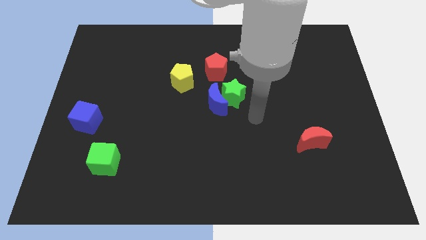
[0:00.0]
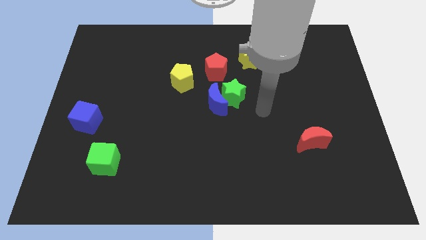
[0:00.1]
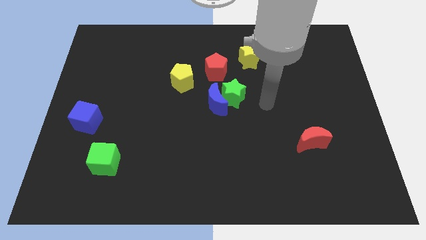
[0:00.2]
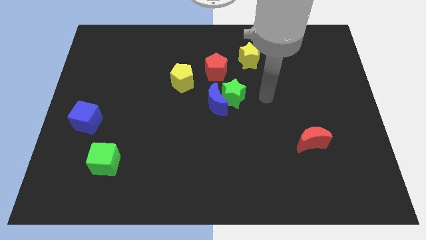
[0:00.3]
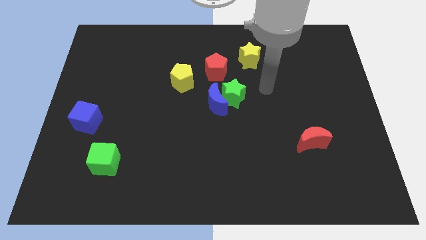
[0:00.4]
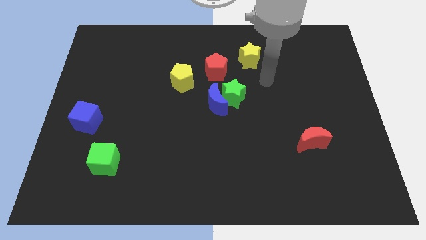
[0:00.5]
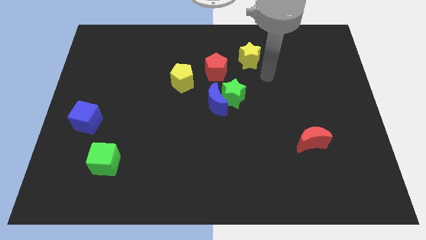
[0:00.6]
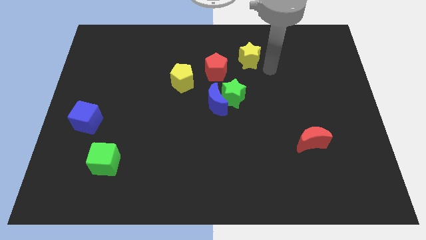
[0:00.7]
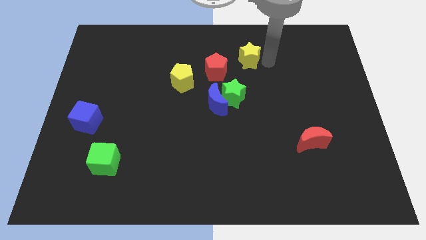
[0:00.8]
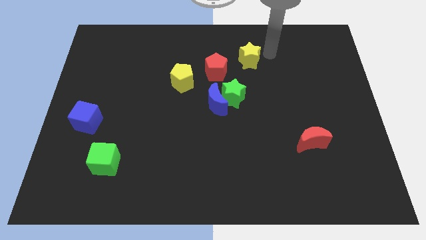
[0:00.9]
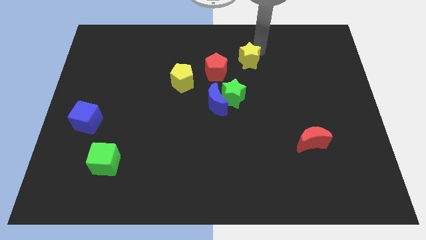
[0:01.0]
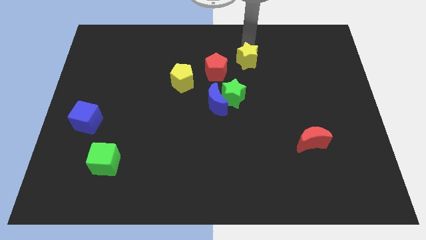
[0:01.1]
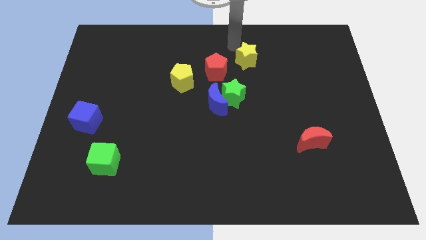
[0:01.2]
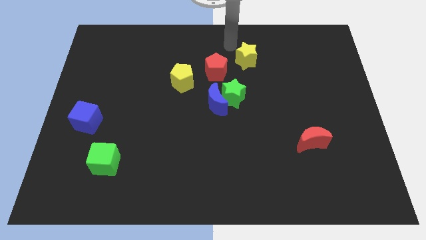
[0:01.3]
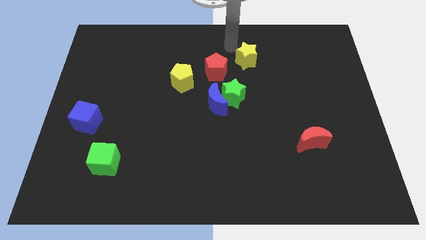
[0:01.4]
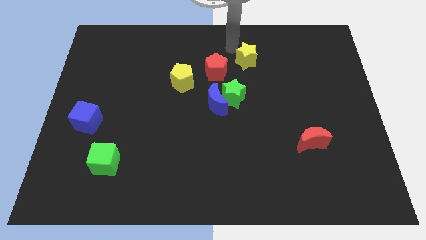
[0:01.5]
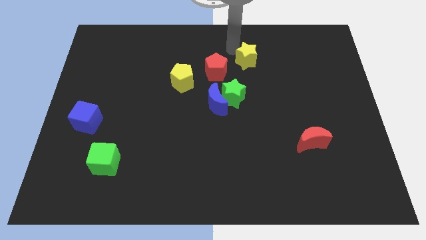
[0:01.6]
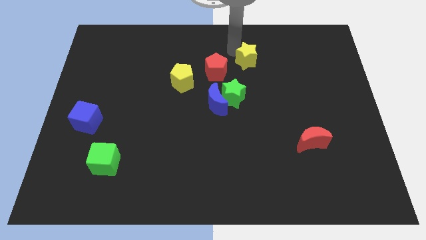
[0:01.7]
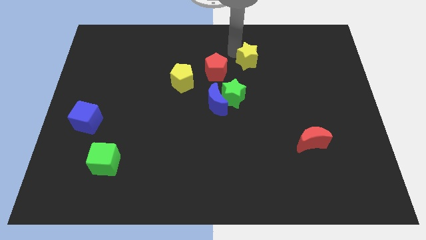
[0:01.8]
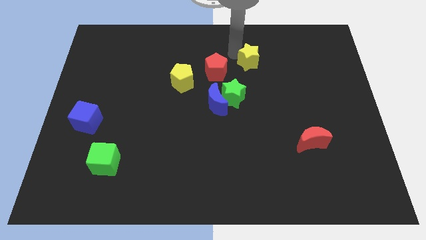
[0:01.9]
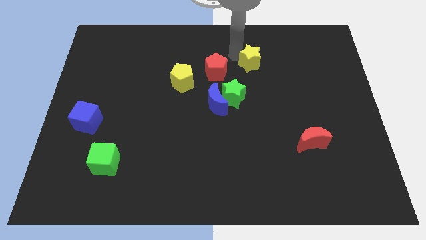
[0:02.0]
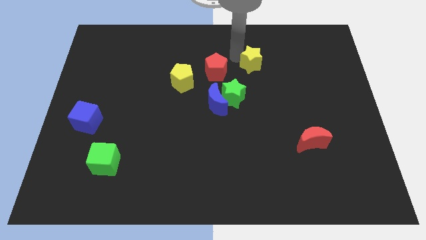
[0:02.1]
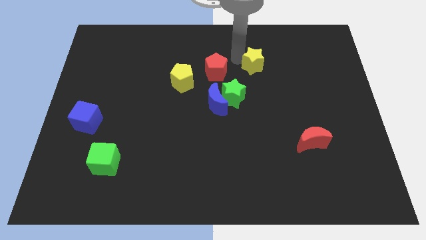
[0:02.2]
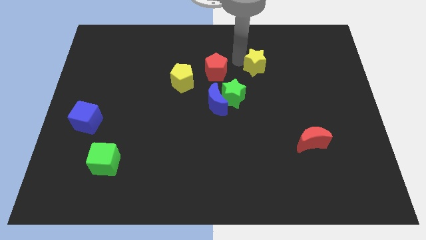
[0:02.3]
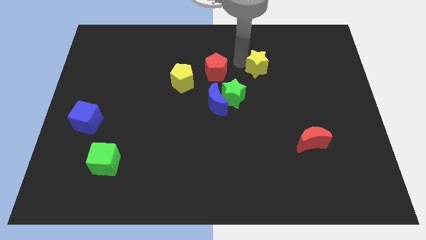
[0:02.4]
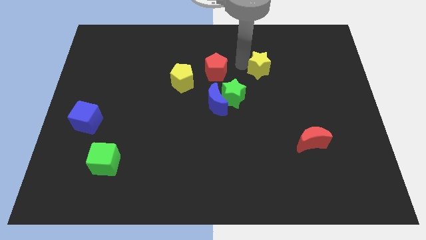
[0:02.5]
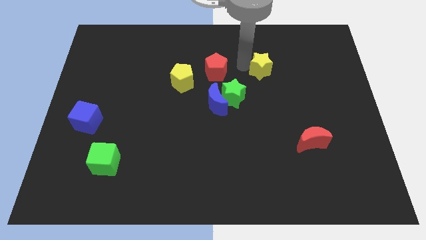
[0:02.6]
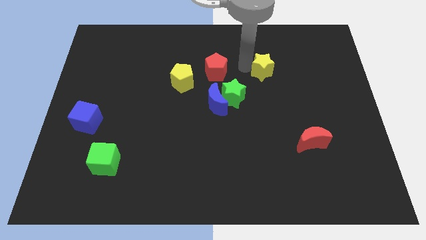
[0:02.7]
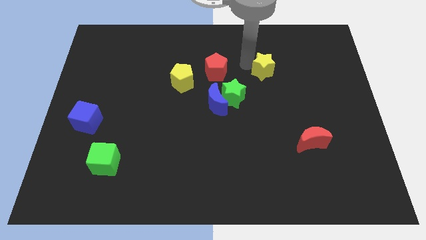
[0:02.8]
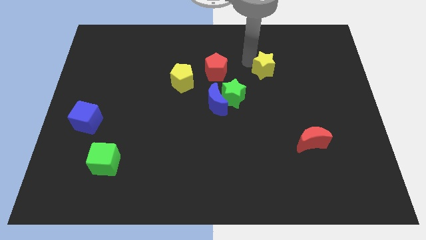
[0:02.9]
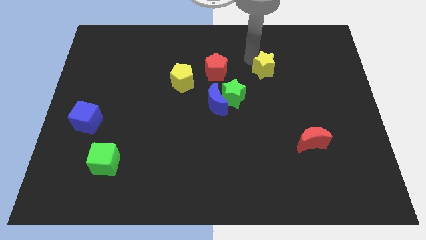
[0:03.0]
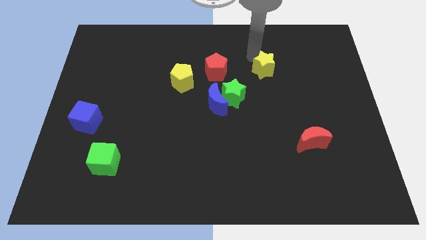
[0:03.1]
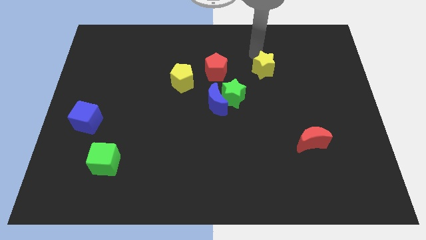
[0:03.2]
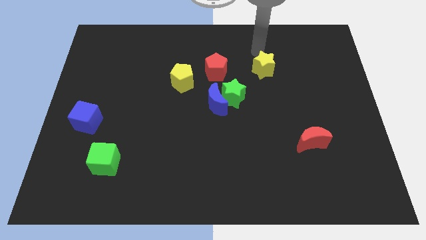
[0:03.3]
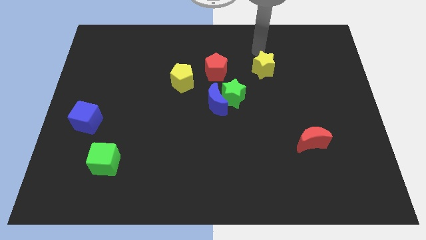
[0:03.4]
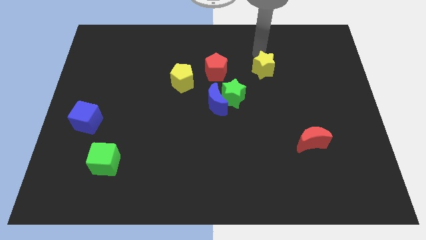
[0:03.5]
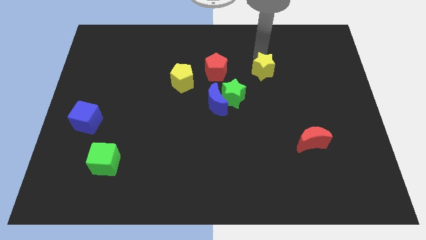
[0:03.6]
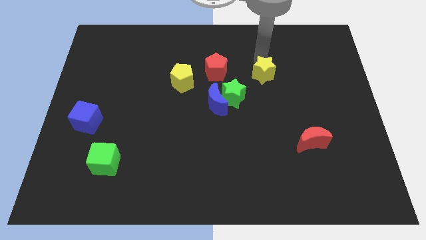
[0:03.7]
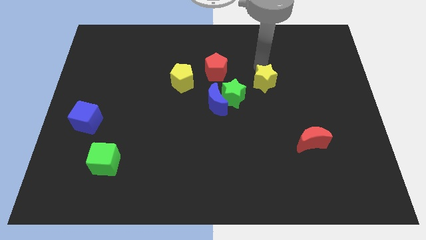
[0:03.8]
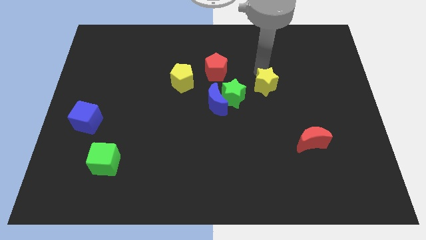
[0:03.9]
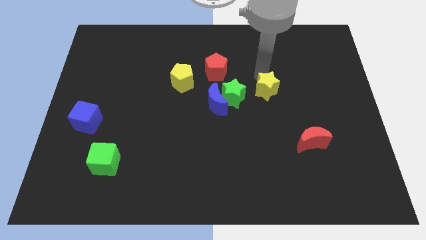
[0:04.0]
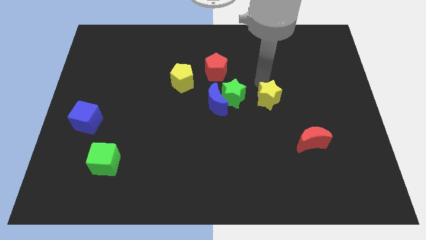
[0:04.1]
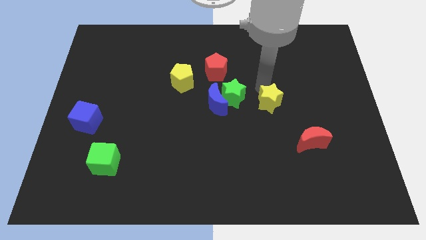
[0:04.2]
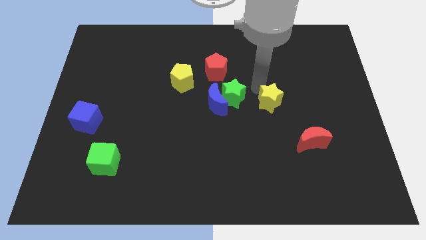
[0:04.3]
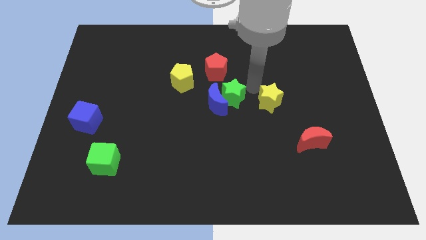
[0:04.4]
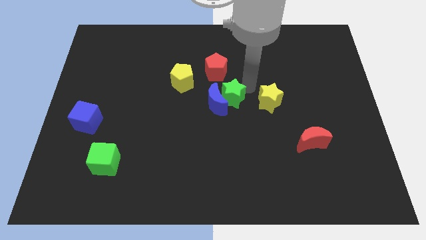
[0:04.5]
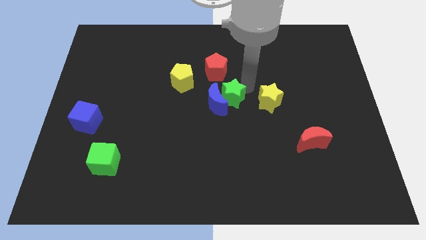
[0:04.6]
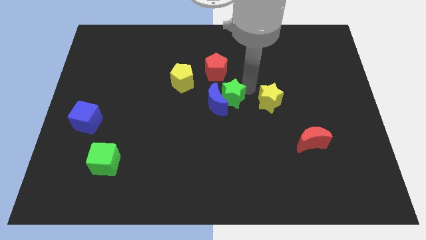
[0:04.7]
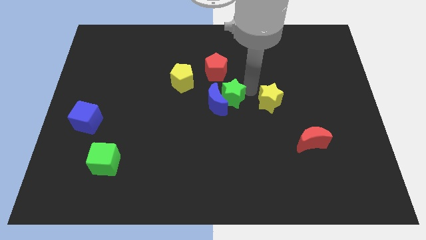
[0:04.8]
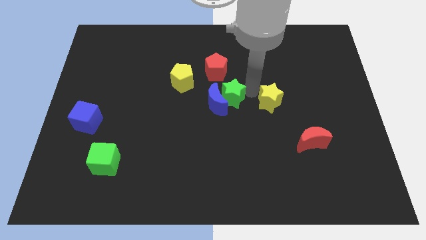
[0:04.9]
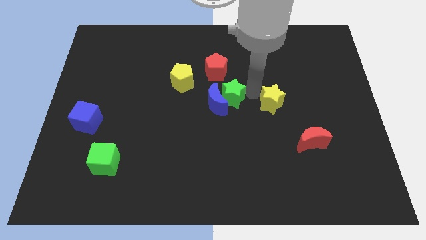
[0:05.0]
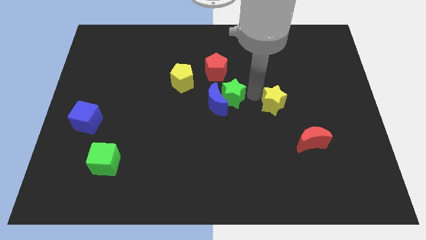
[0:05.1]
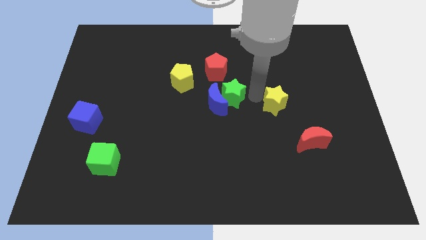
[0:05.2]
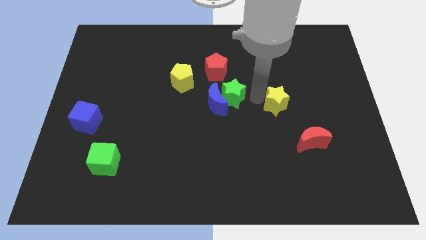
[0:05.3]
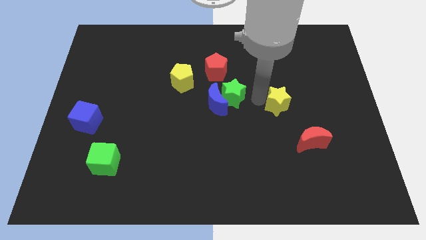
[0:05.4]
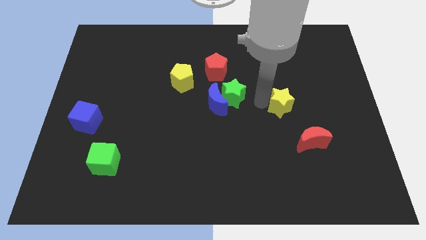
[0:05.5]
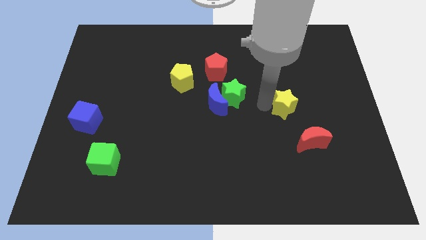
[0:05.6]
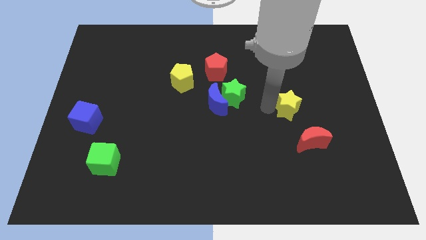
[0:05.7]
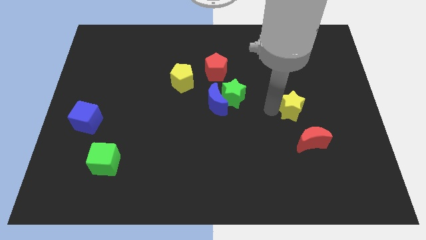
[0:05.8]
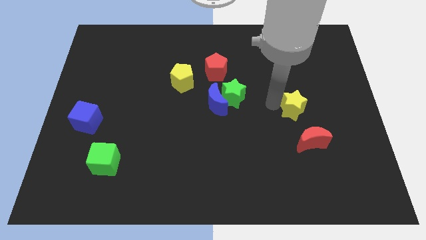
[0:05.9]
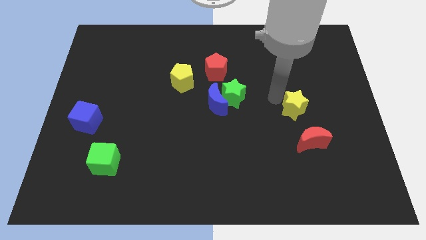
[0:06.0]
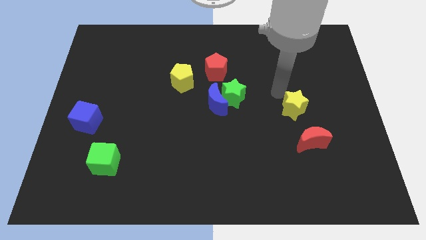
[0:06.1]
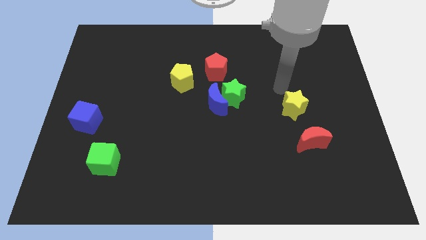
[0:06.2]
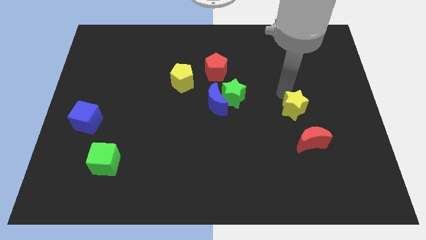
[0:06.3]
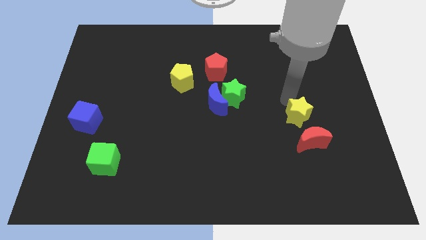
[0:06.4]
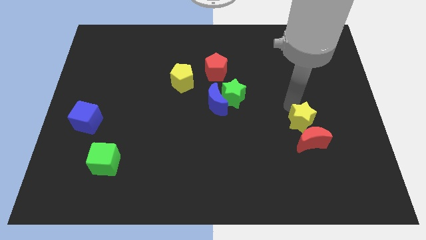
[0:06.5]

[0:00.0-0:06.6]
slide the yellow star towards the red moon
